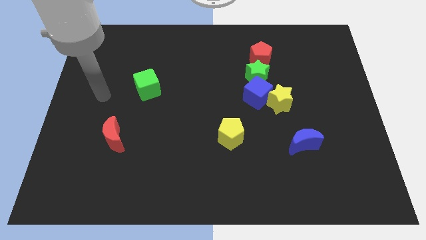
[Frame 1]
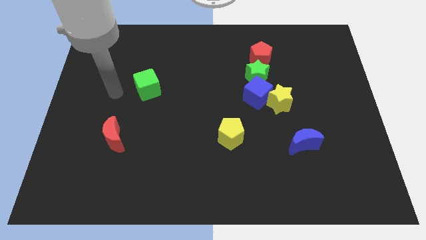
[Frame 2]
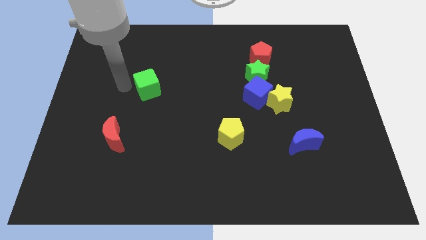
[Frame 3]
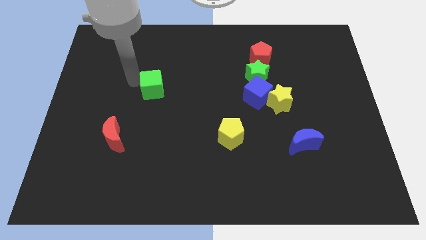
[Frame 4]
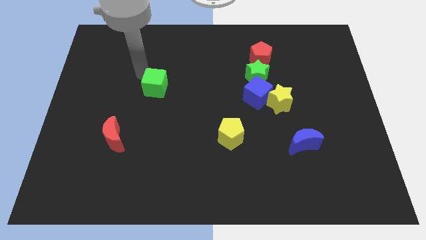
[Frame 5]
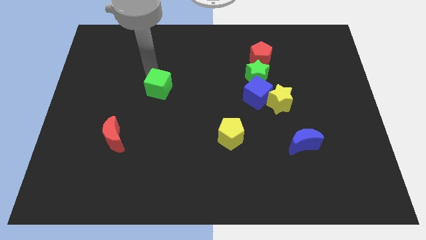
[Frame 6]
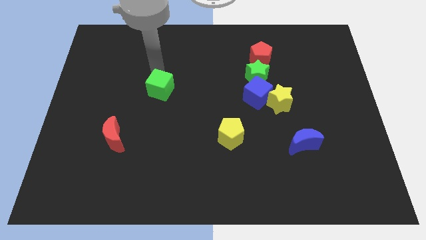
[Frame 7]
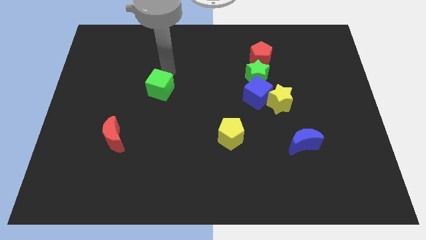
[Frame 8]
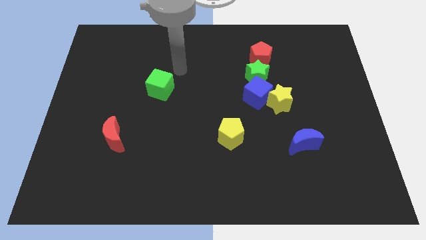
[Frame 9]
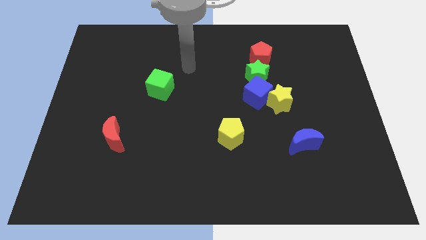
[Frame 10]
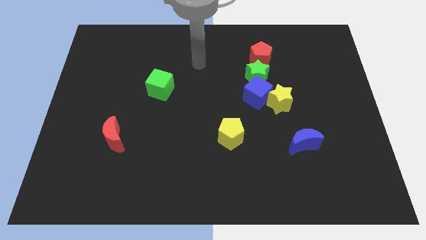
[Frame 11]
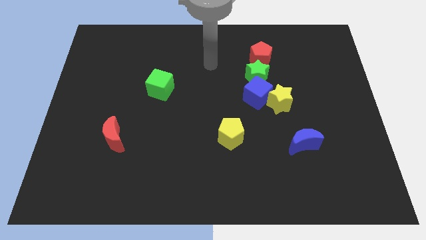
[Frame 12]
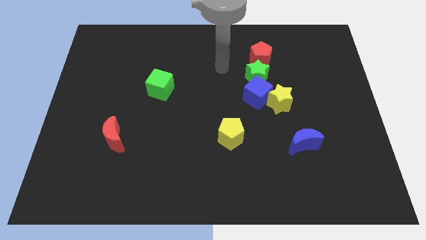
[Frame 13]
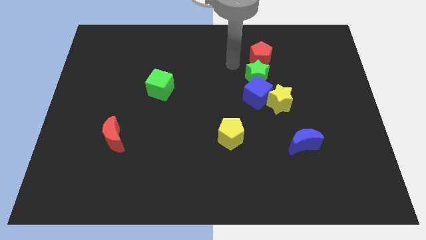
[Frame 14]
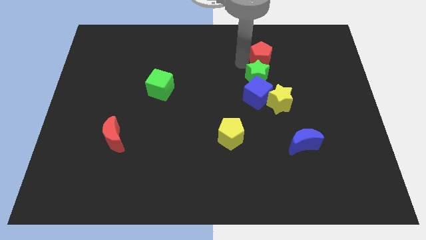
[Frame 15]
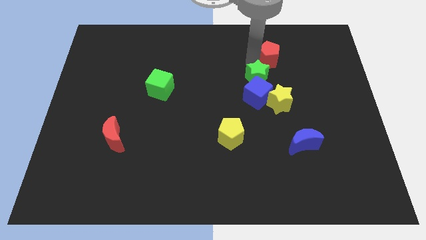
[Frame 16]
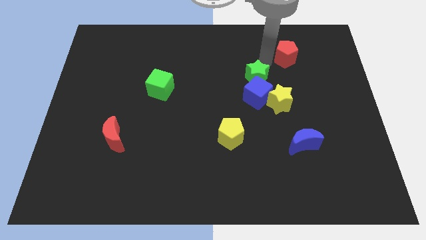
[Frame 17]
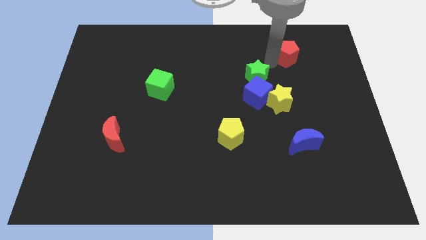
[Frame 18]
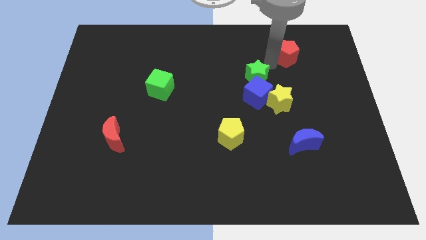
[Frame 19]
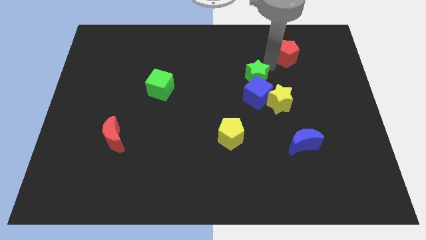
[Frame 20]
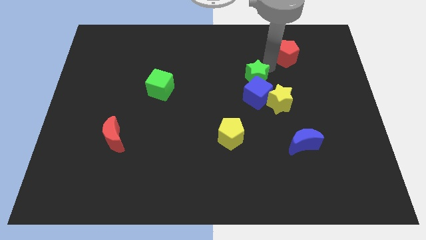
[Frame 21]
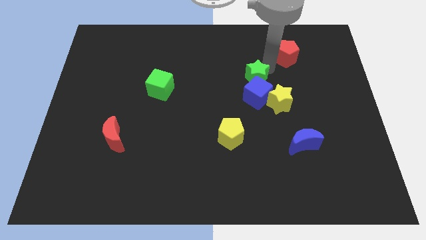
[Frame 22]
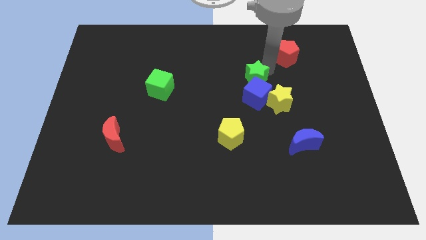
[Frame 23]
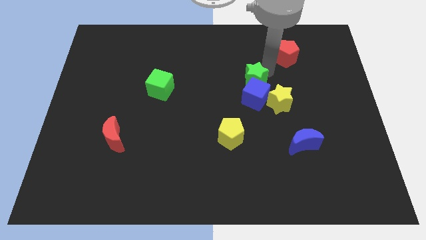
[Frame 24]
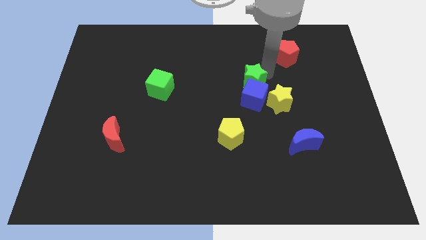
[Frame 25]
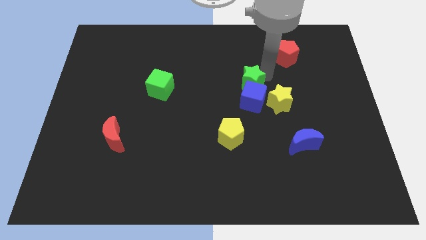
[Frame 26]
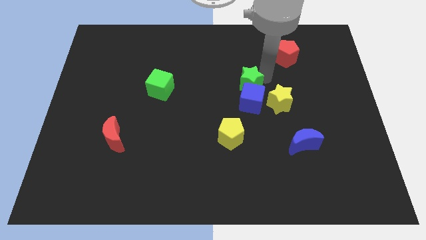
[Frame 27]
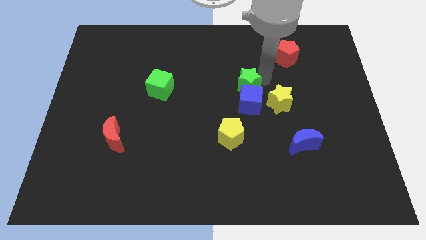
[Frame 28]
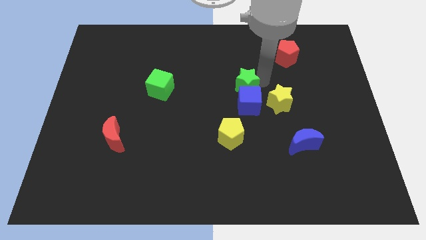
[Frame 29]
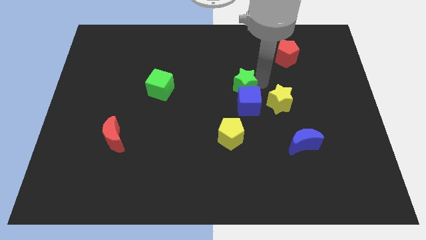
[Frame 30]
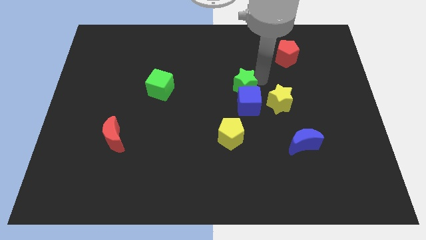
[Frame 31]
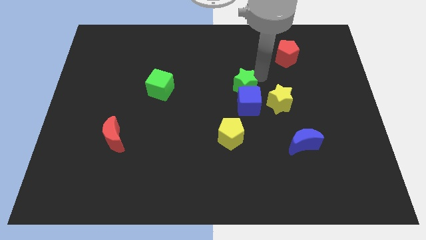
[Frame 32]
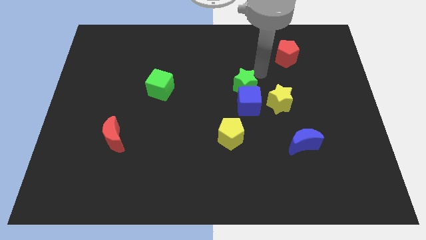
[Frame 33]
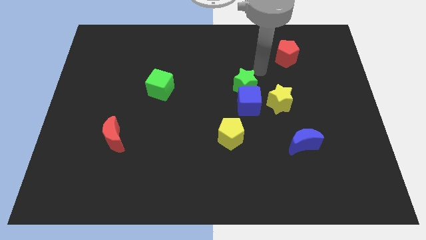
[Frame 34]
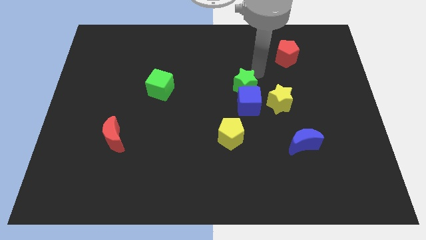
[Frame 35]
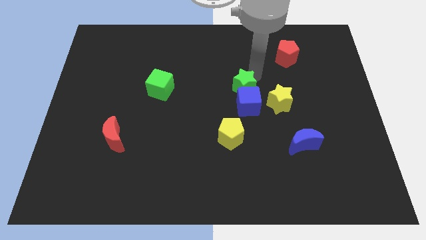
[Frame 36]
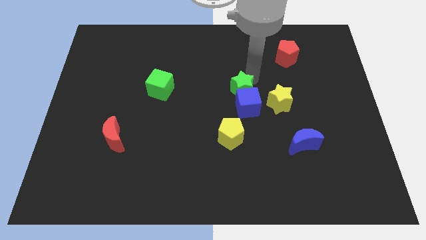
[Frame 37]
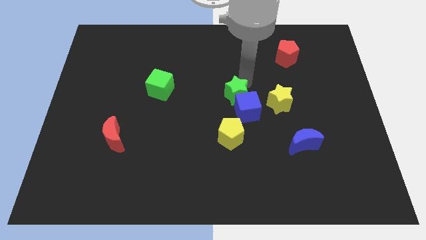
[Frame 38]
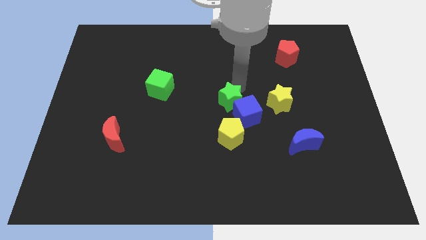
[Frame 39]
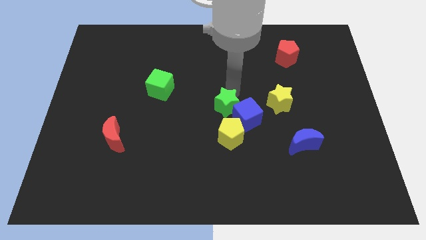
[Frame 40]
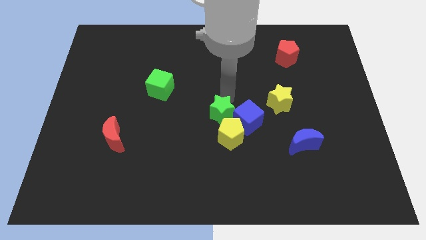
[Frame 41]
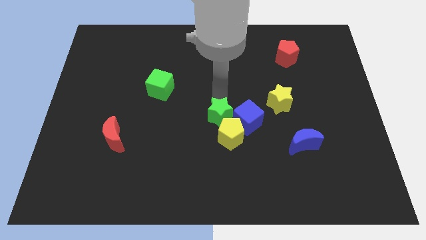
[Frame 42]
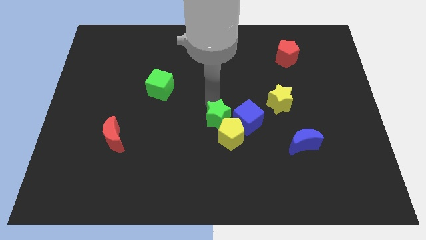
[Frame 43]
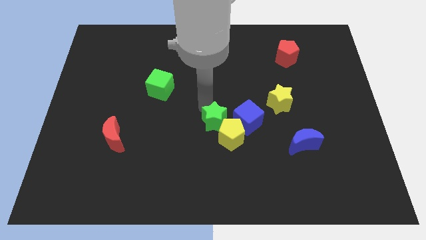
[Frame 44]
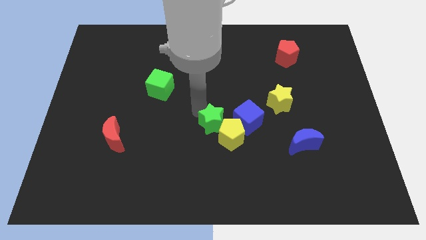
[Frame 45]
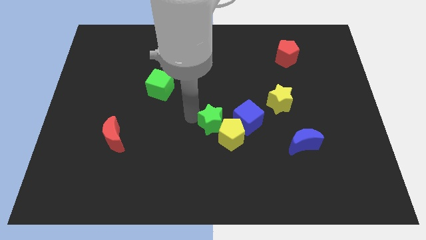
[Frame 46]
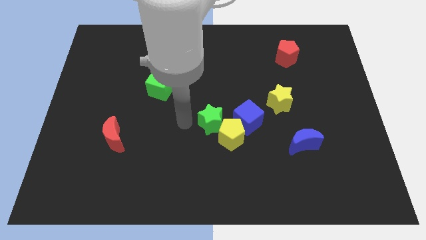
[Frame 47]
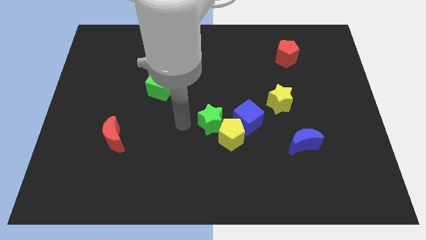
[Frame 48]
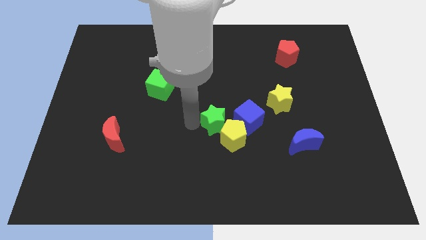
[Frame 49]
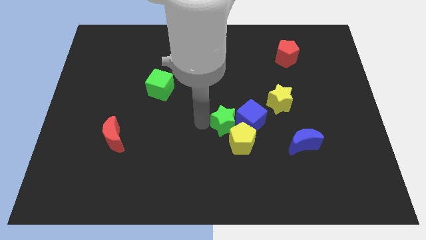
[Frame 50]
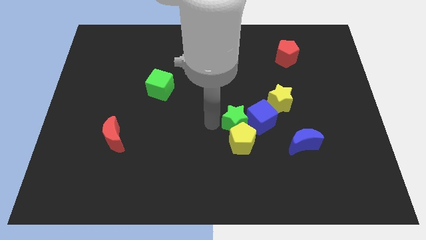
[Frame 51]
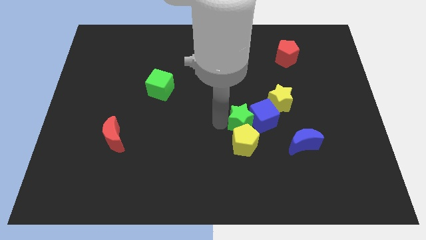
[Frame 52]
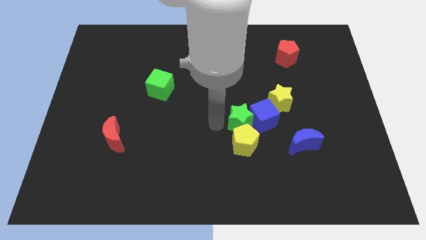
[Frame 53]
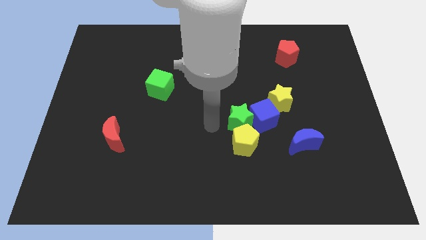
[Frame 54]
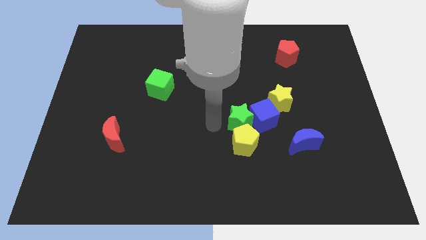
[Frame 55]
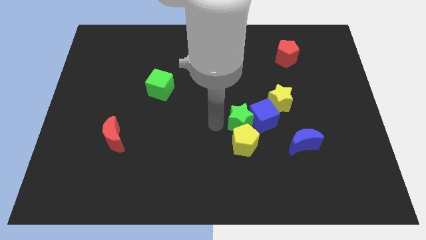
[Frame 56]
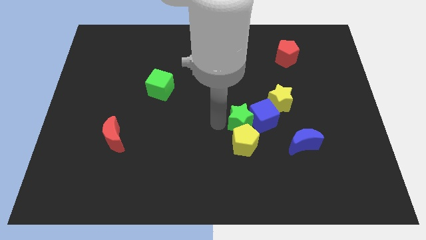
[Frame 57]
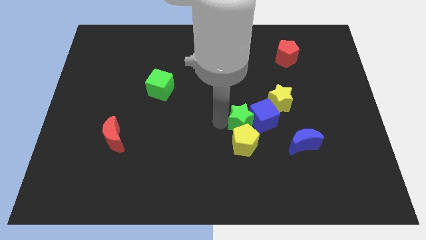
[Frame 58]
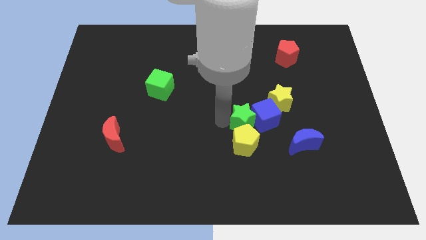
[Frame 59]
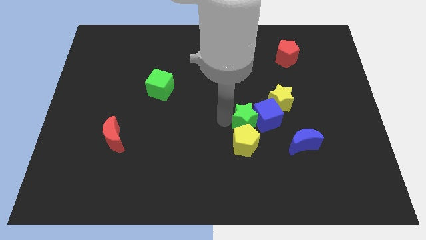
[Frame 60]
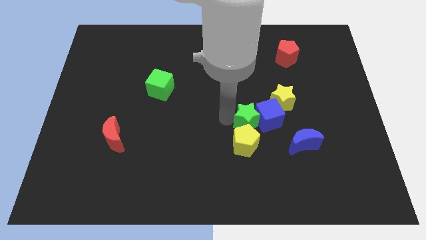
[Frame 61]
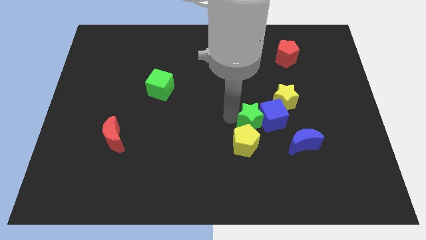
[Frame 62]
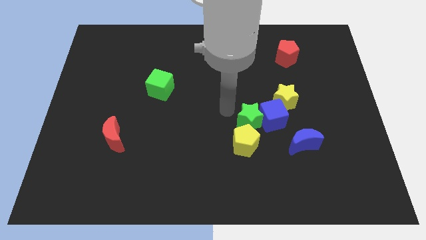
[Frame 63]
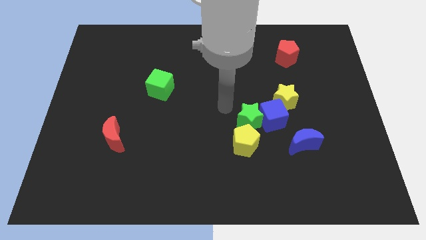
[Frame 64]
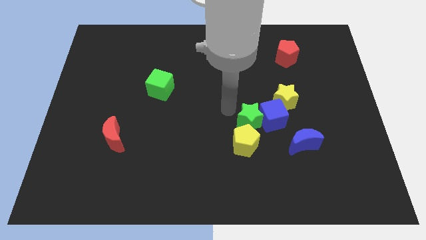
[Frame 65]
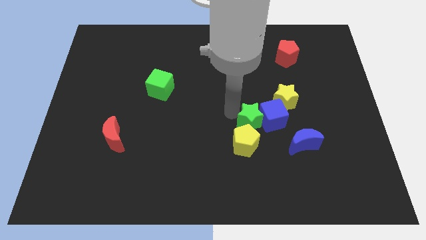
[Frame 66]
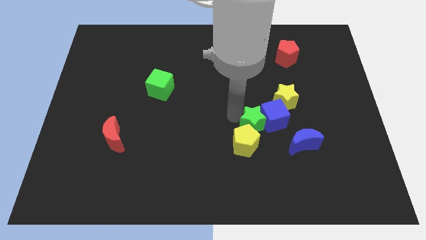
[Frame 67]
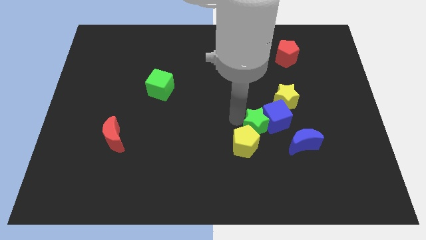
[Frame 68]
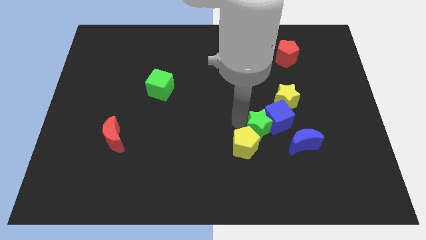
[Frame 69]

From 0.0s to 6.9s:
put the green star to the right side of the yellow pentagon
